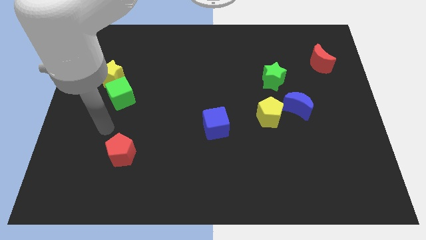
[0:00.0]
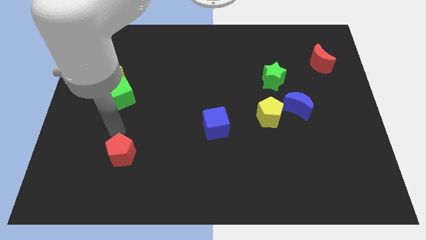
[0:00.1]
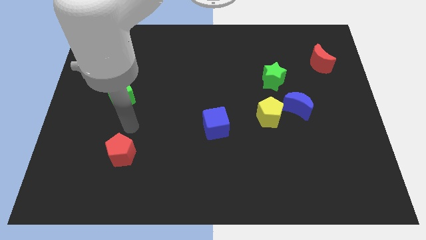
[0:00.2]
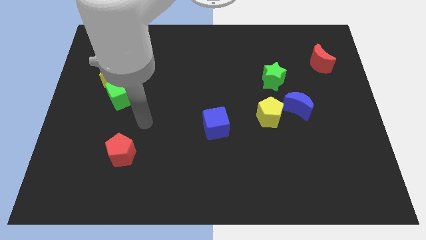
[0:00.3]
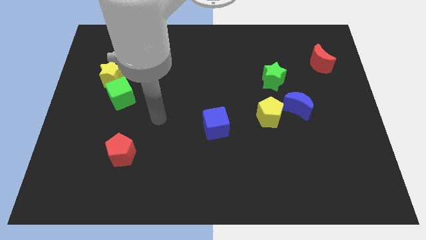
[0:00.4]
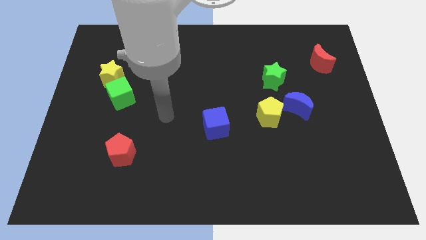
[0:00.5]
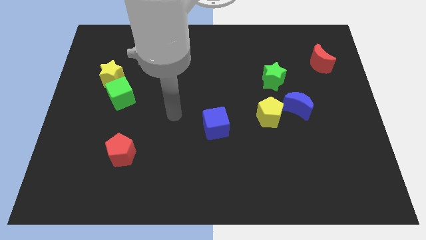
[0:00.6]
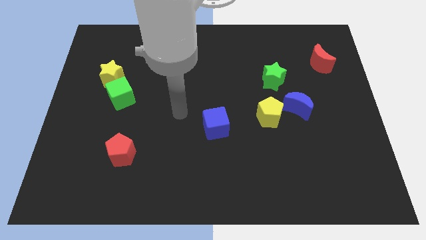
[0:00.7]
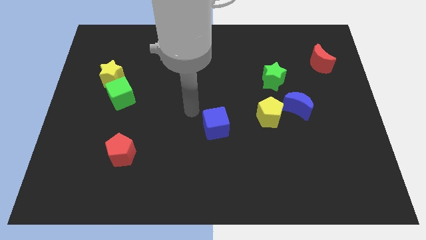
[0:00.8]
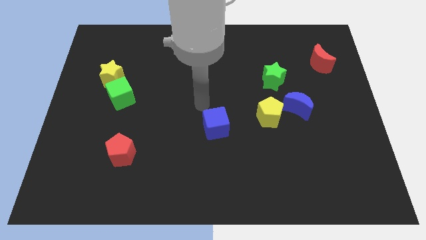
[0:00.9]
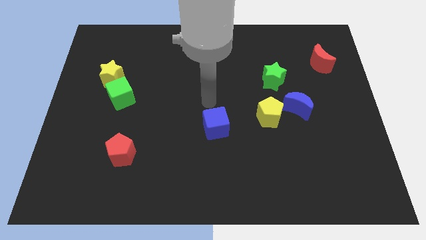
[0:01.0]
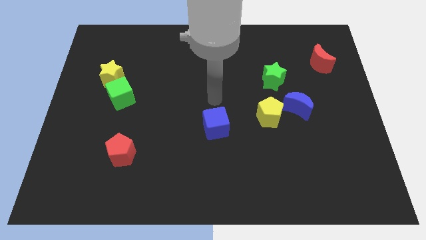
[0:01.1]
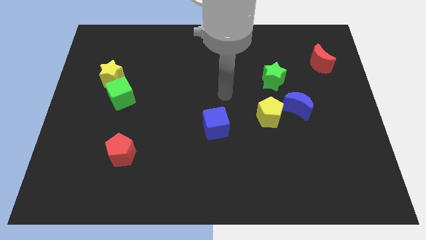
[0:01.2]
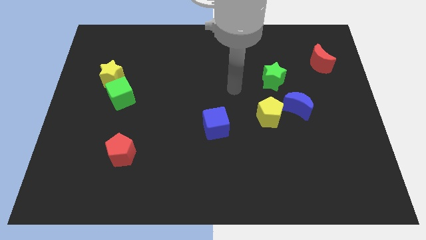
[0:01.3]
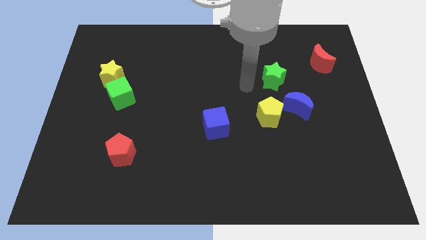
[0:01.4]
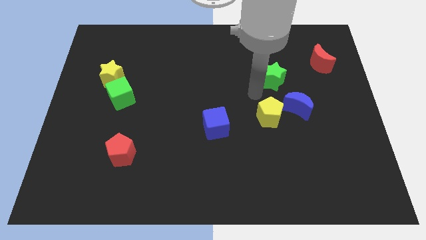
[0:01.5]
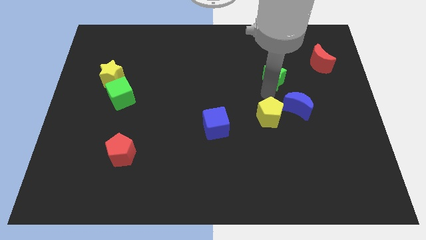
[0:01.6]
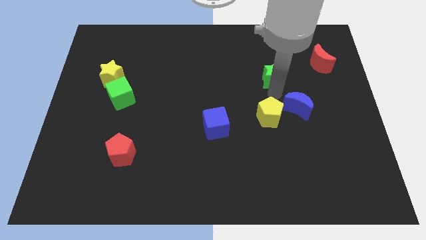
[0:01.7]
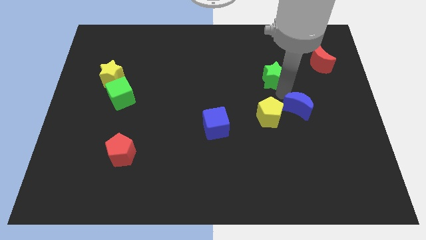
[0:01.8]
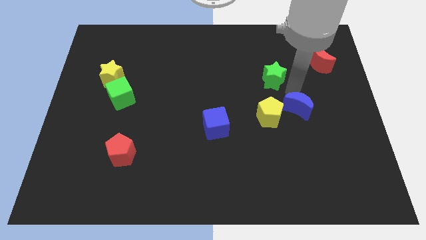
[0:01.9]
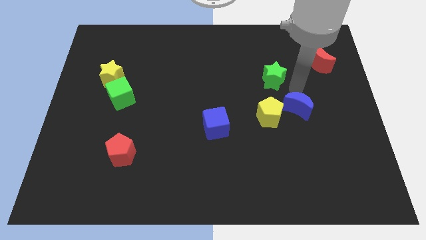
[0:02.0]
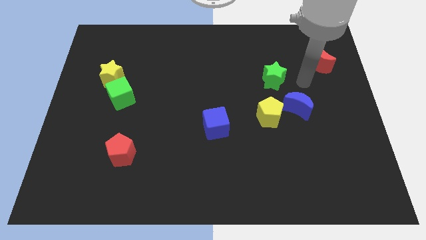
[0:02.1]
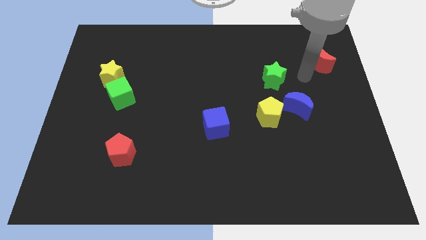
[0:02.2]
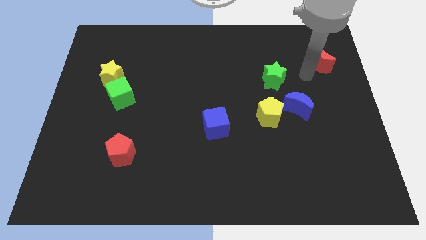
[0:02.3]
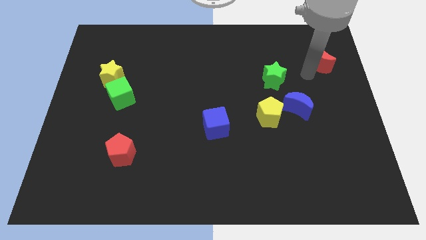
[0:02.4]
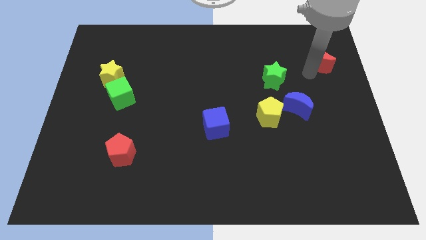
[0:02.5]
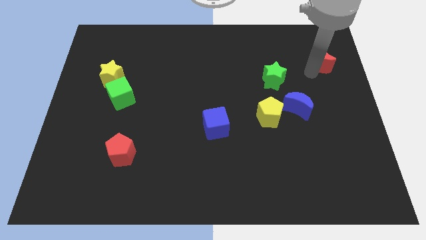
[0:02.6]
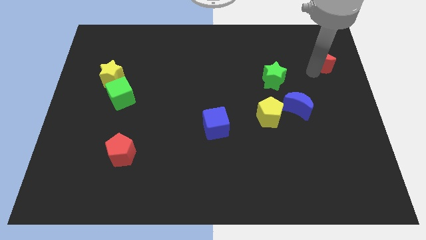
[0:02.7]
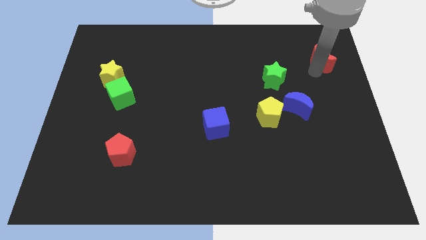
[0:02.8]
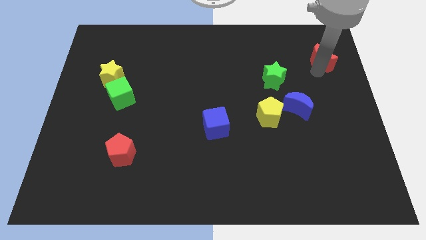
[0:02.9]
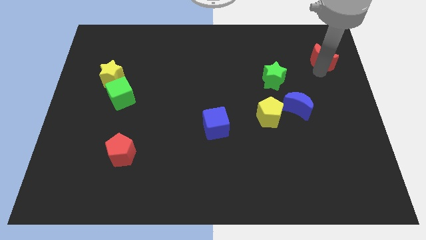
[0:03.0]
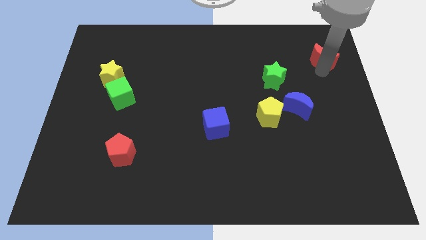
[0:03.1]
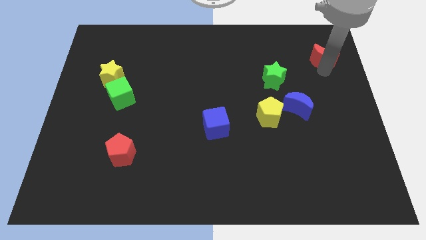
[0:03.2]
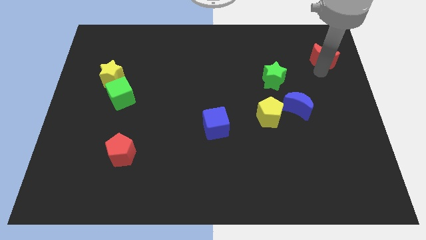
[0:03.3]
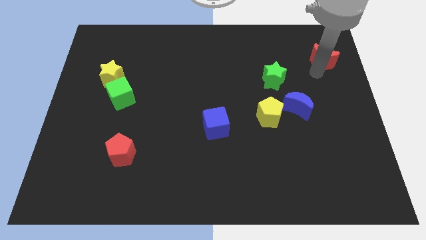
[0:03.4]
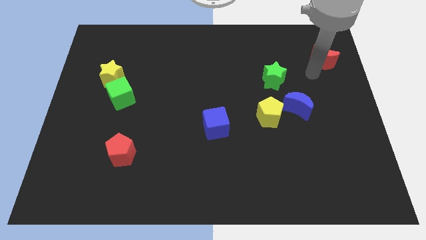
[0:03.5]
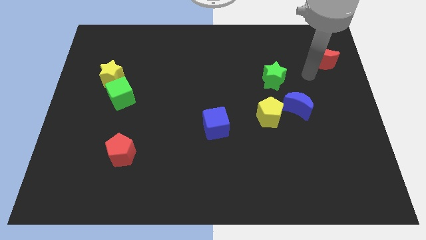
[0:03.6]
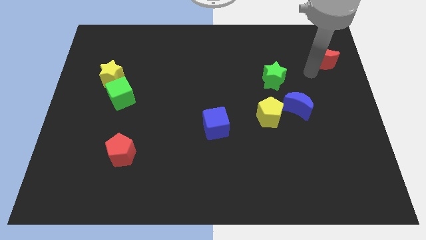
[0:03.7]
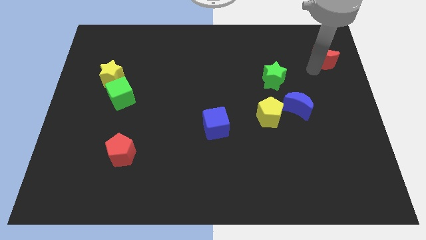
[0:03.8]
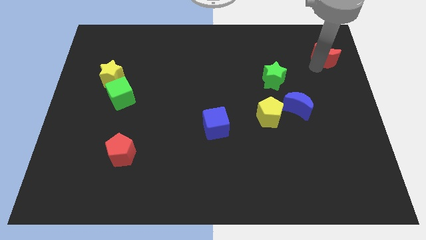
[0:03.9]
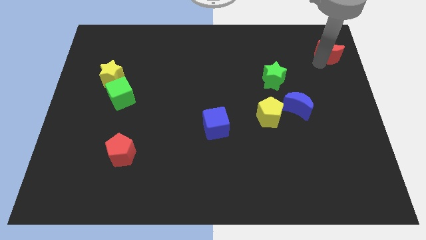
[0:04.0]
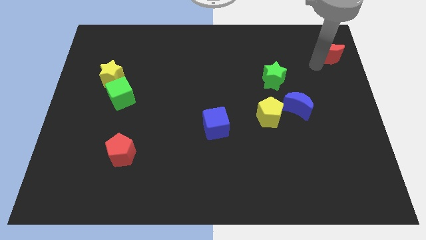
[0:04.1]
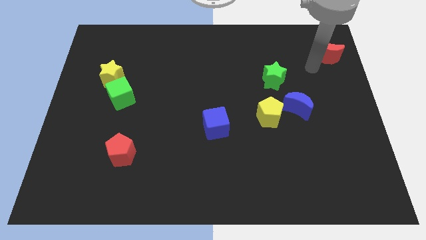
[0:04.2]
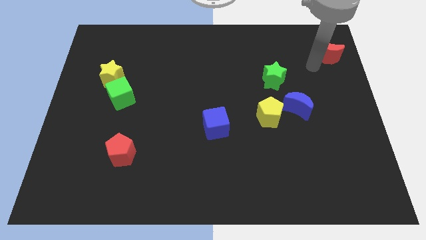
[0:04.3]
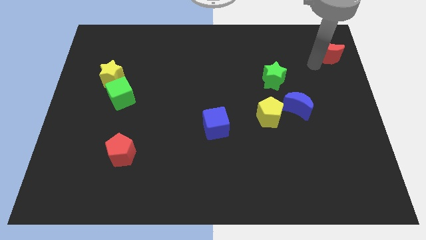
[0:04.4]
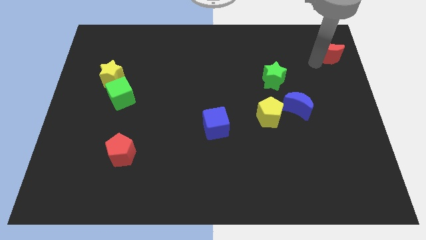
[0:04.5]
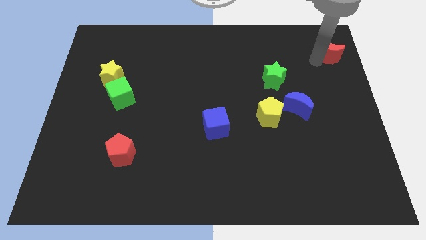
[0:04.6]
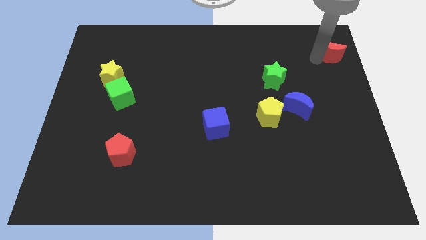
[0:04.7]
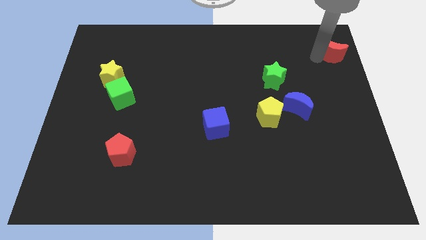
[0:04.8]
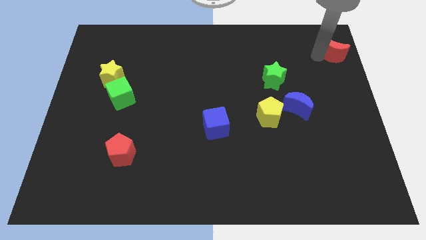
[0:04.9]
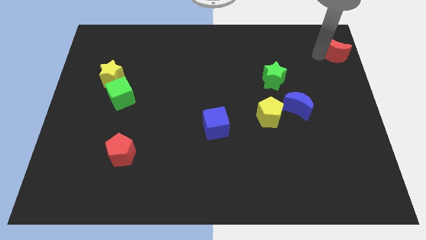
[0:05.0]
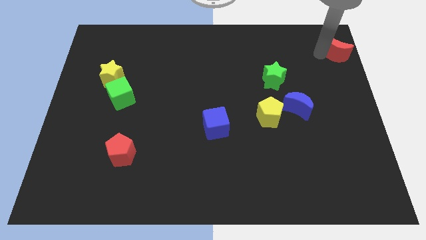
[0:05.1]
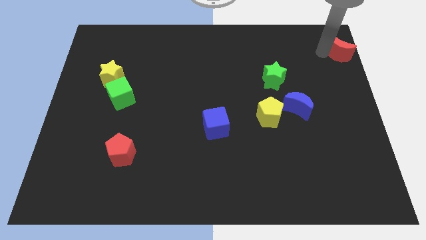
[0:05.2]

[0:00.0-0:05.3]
put the red moon to the top right

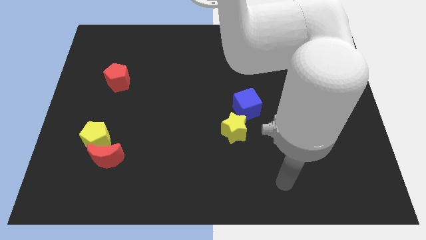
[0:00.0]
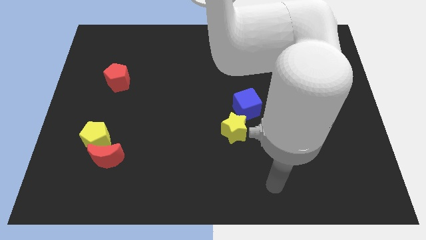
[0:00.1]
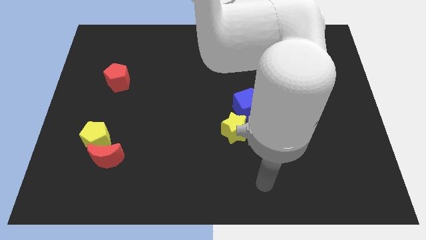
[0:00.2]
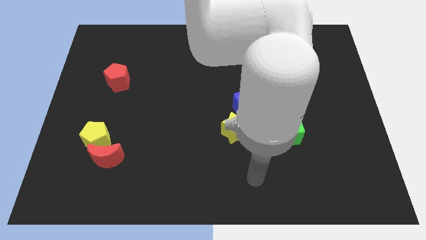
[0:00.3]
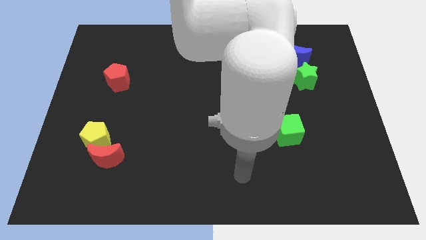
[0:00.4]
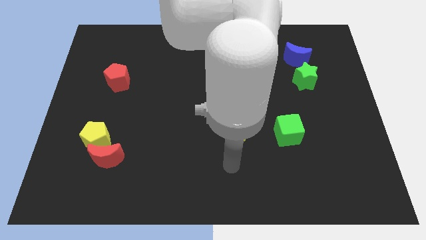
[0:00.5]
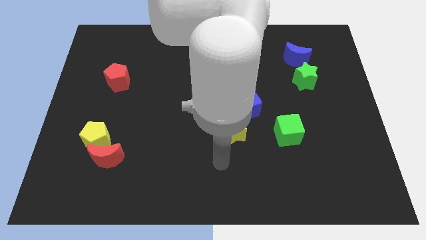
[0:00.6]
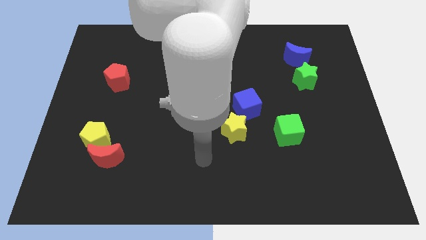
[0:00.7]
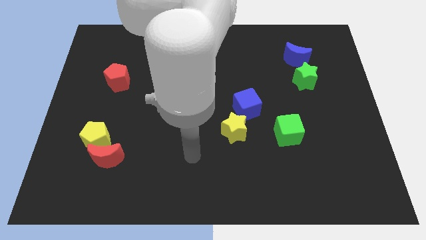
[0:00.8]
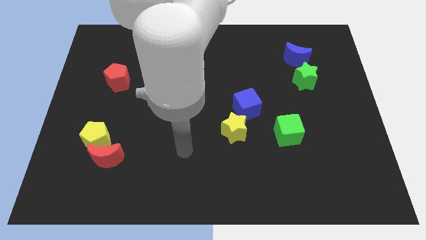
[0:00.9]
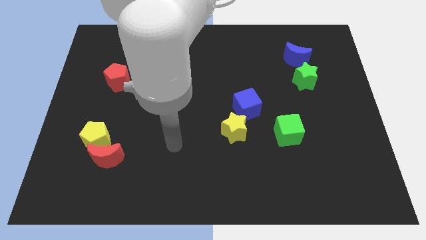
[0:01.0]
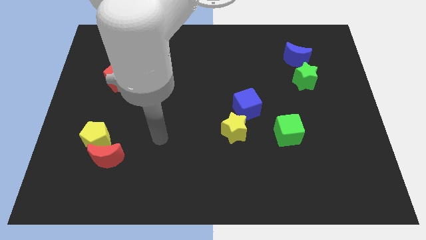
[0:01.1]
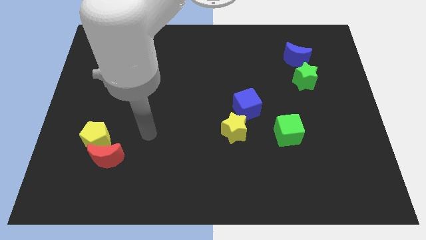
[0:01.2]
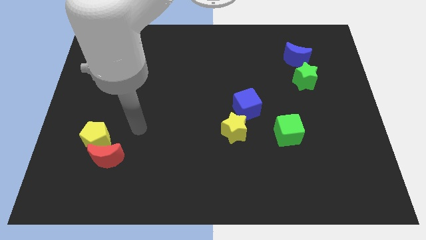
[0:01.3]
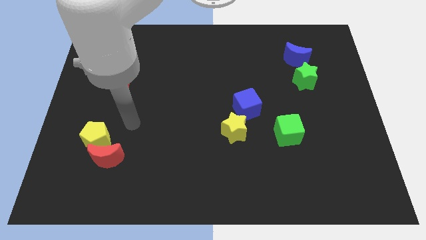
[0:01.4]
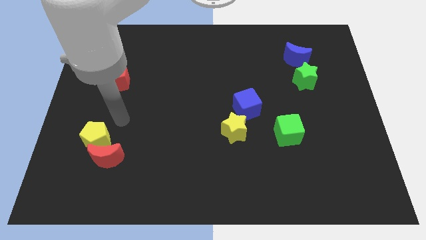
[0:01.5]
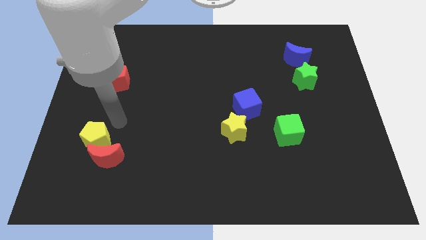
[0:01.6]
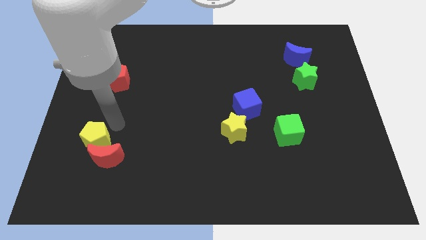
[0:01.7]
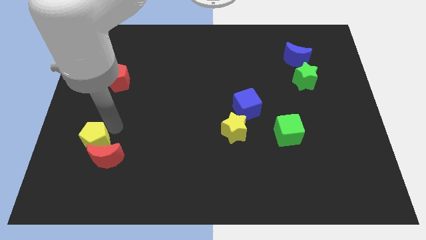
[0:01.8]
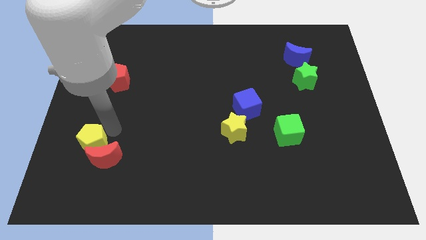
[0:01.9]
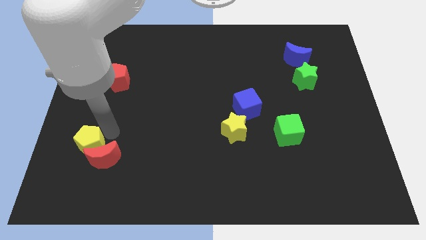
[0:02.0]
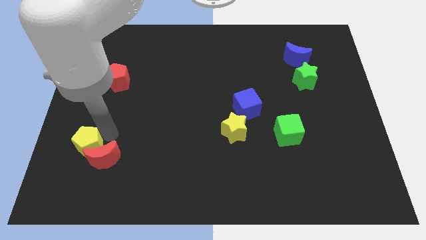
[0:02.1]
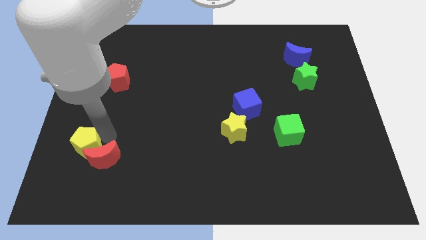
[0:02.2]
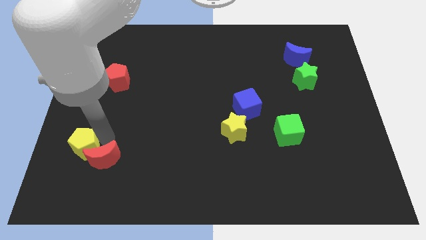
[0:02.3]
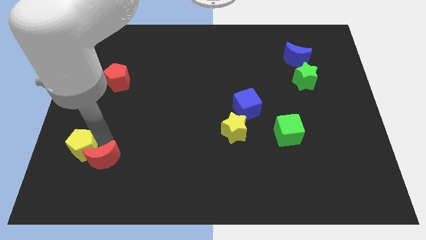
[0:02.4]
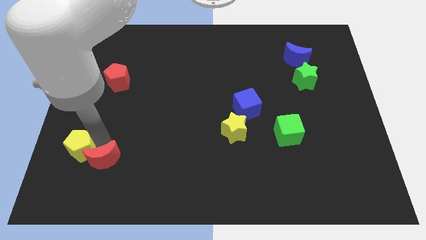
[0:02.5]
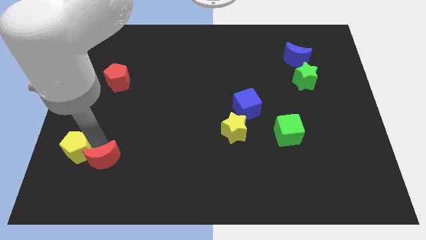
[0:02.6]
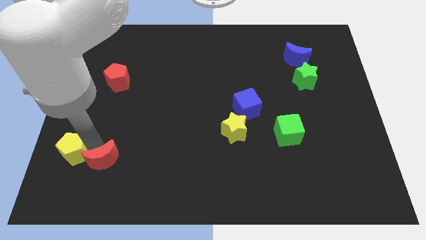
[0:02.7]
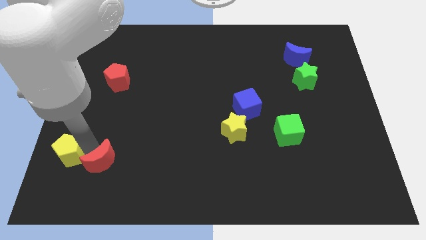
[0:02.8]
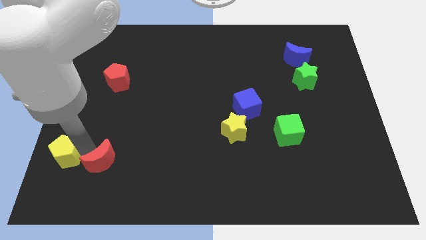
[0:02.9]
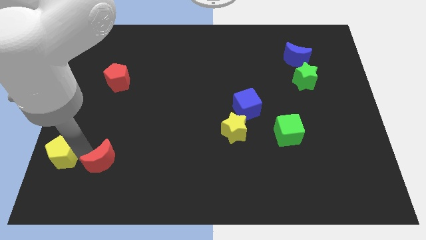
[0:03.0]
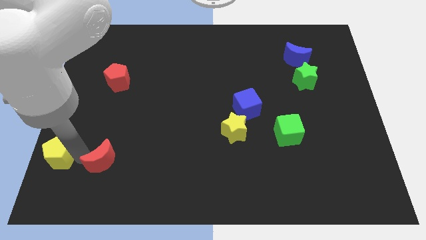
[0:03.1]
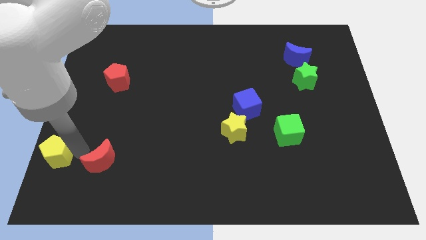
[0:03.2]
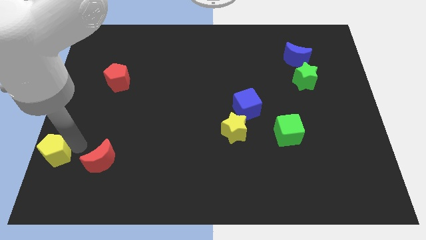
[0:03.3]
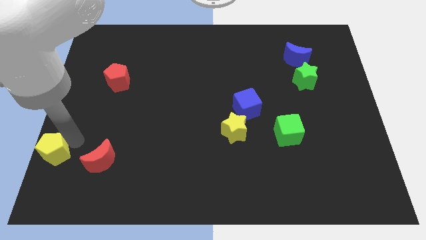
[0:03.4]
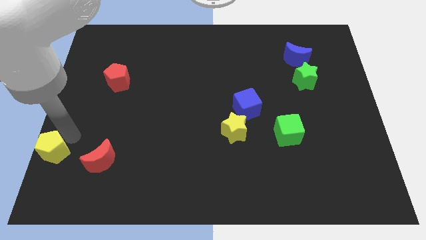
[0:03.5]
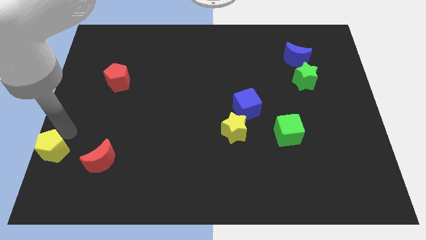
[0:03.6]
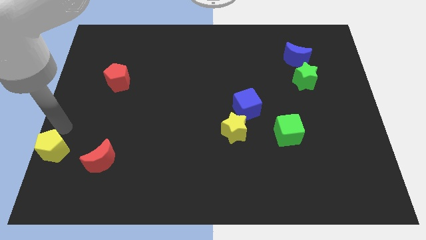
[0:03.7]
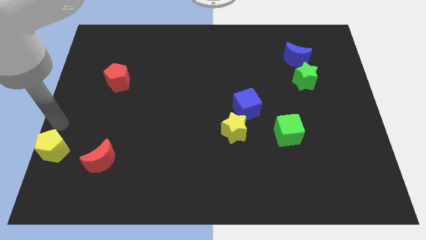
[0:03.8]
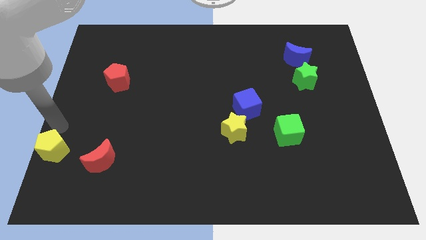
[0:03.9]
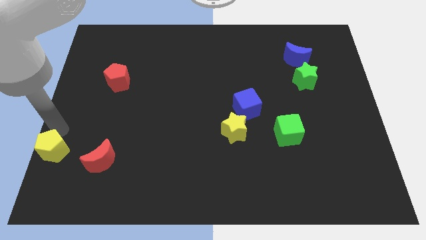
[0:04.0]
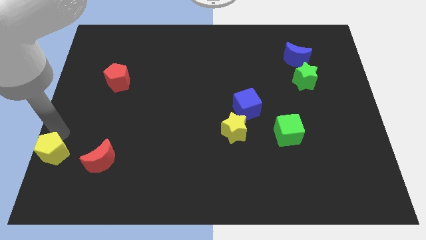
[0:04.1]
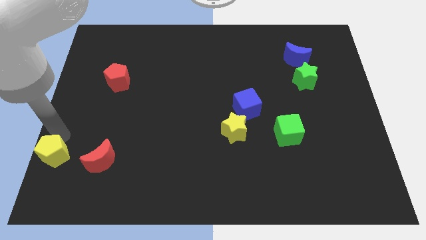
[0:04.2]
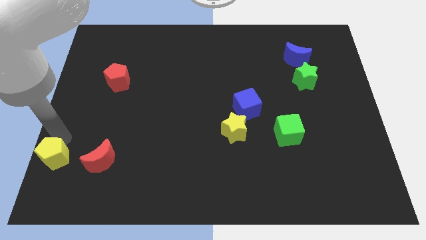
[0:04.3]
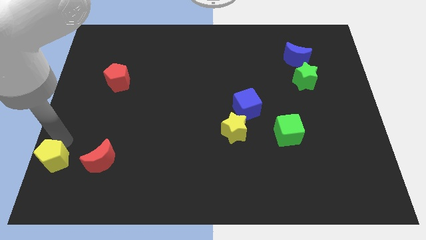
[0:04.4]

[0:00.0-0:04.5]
move the yellow pentagon to the bottom left of the board
